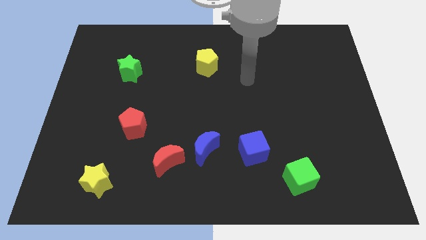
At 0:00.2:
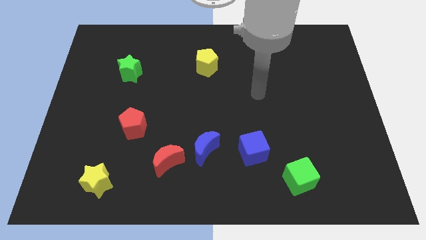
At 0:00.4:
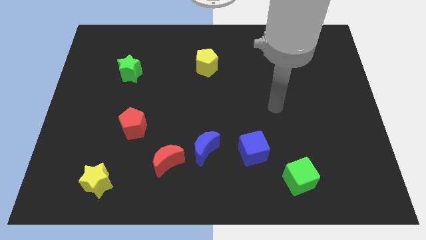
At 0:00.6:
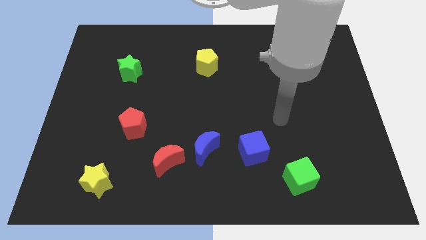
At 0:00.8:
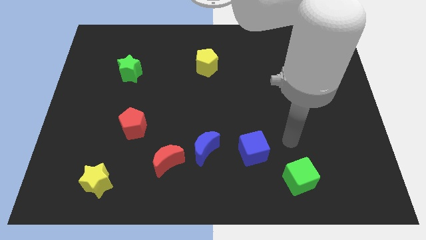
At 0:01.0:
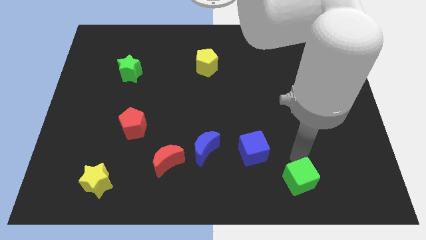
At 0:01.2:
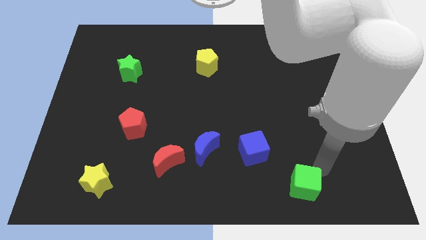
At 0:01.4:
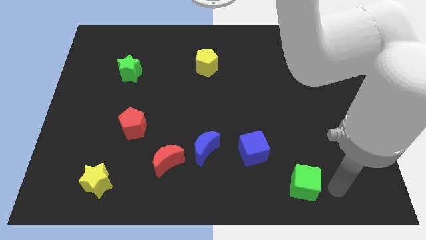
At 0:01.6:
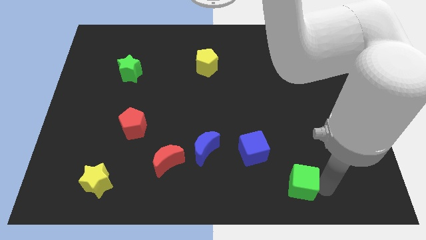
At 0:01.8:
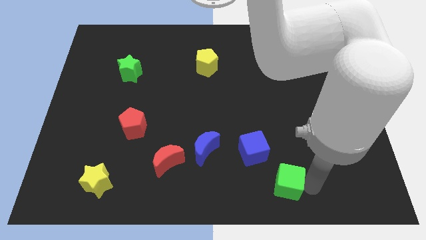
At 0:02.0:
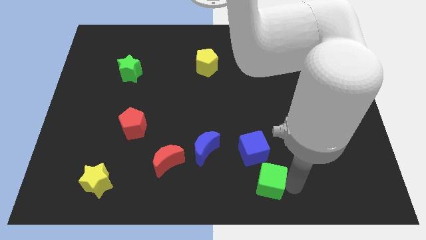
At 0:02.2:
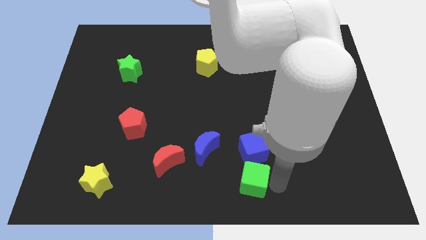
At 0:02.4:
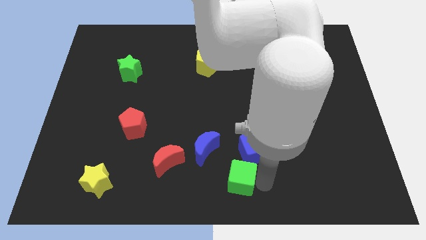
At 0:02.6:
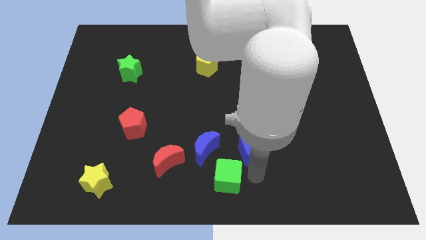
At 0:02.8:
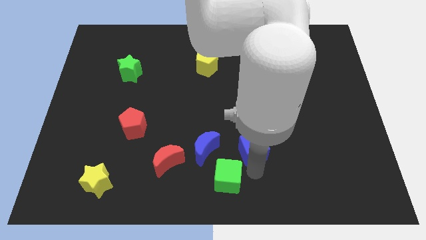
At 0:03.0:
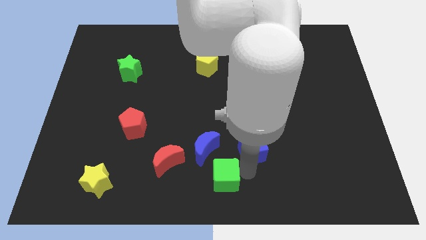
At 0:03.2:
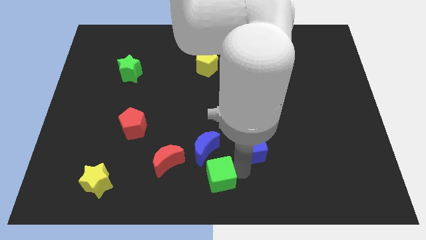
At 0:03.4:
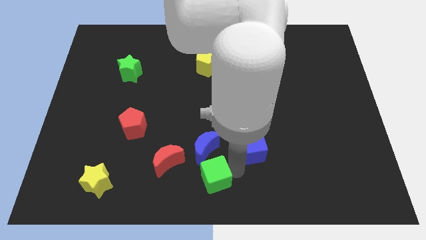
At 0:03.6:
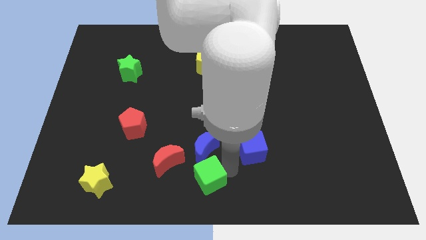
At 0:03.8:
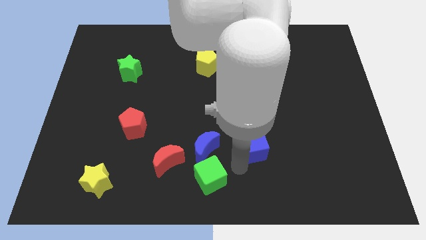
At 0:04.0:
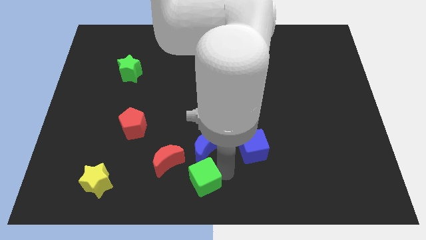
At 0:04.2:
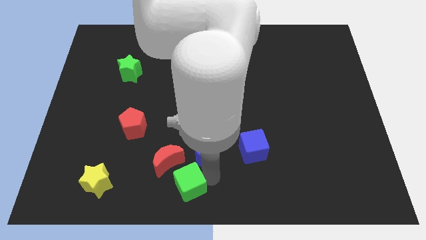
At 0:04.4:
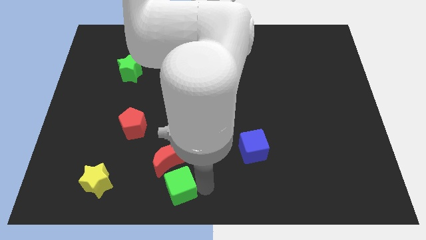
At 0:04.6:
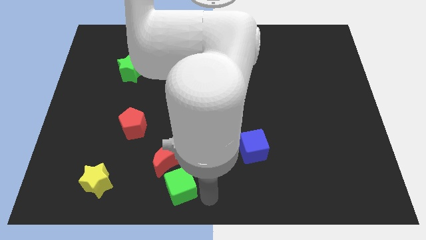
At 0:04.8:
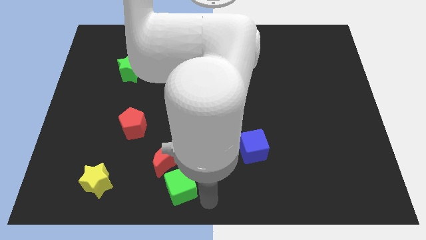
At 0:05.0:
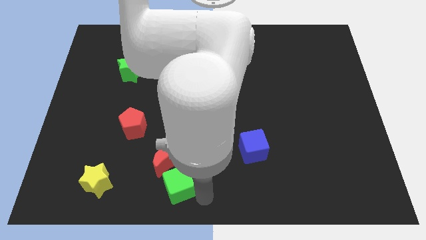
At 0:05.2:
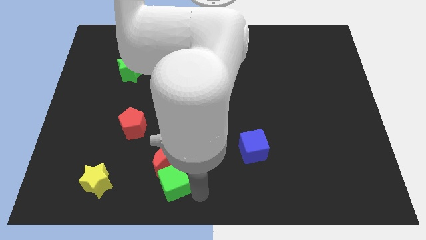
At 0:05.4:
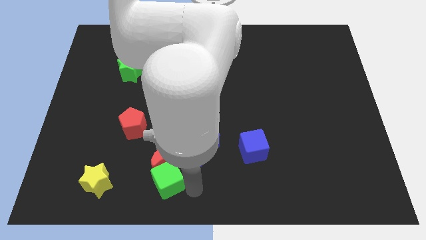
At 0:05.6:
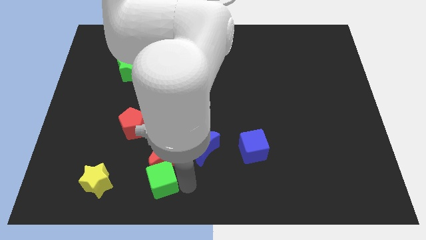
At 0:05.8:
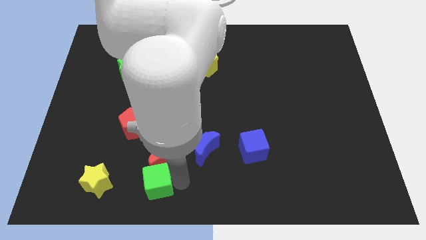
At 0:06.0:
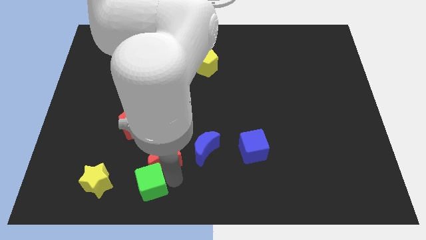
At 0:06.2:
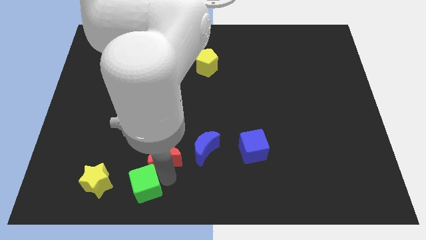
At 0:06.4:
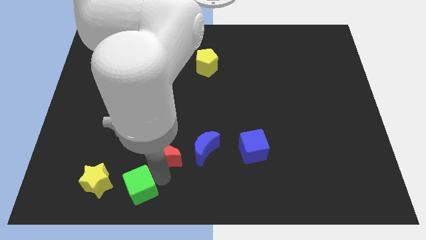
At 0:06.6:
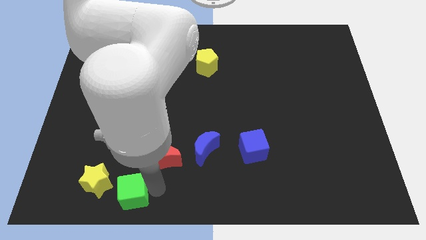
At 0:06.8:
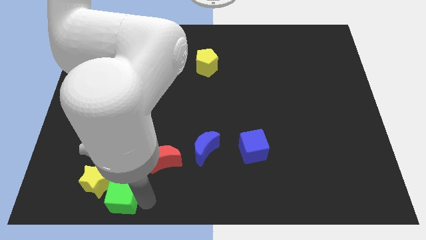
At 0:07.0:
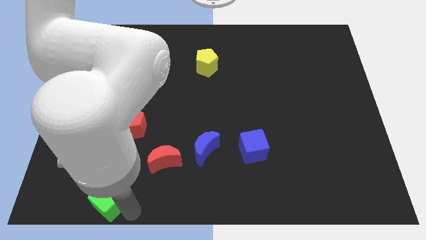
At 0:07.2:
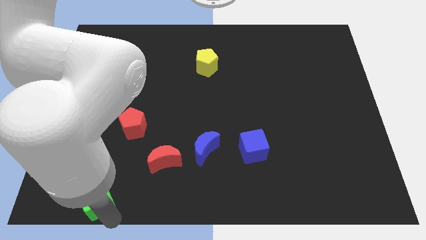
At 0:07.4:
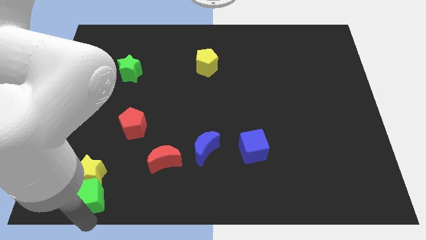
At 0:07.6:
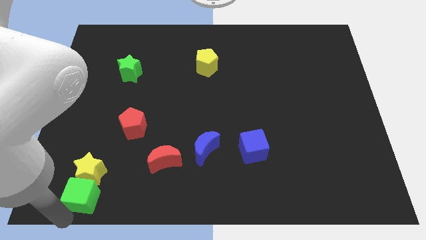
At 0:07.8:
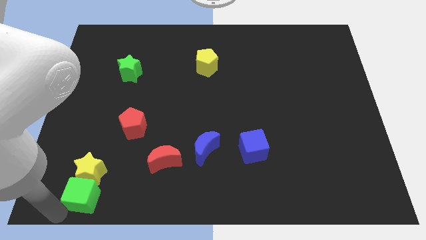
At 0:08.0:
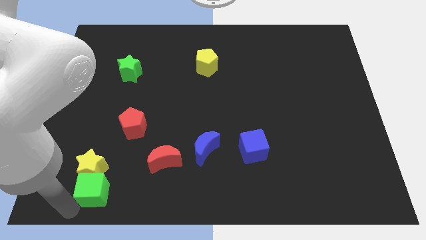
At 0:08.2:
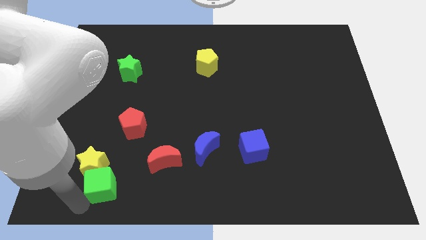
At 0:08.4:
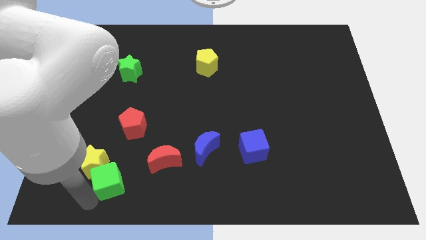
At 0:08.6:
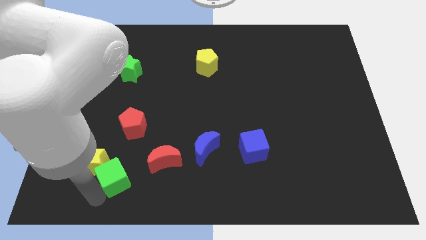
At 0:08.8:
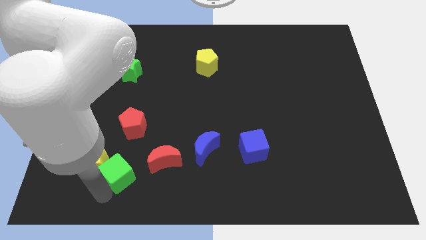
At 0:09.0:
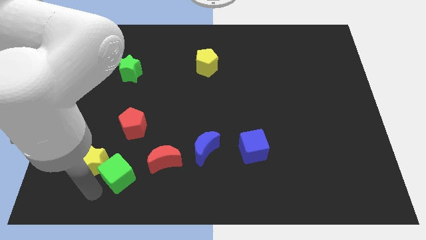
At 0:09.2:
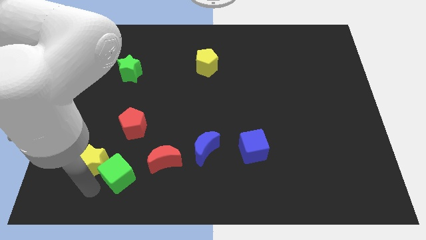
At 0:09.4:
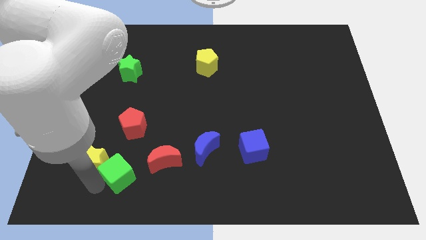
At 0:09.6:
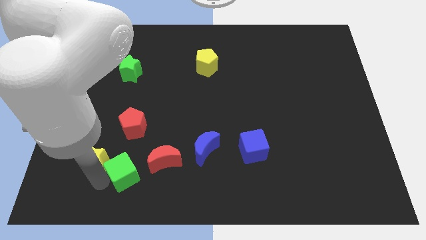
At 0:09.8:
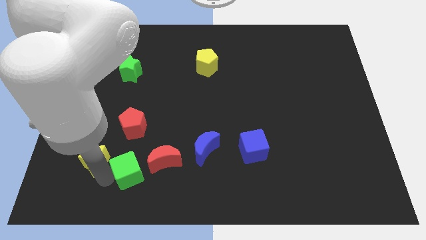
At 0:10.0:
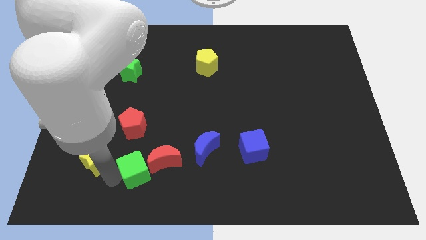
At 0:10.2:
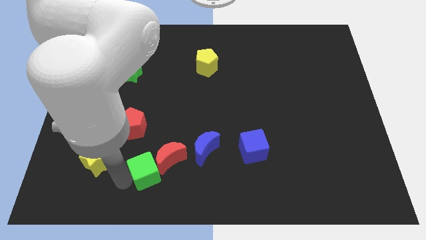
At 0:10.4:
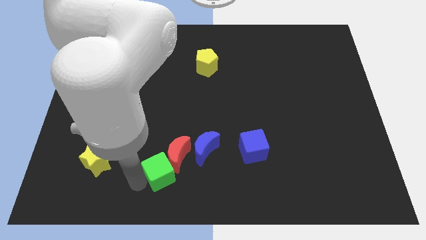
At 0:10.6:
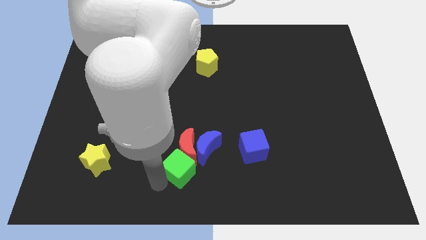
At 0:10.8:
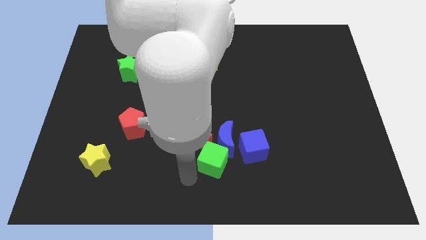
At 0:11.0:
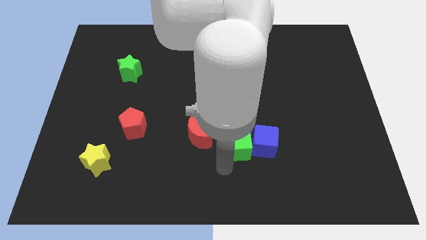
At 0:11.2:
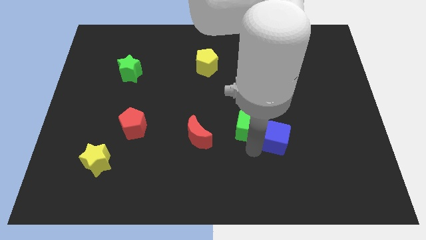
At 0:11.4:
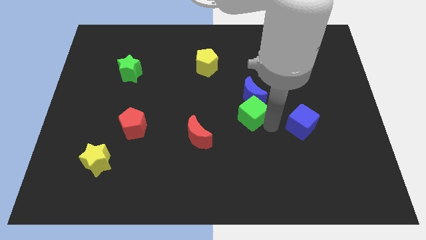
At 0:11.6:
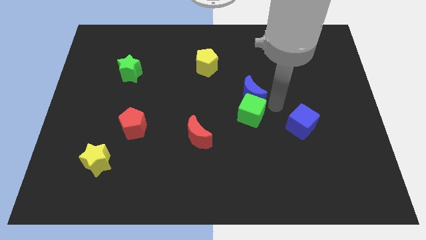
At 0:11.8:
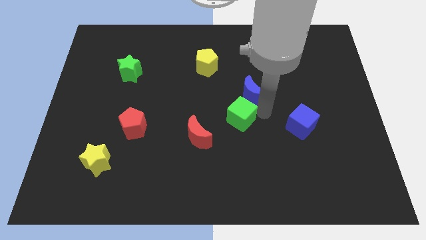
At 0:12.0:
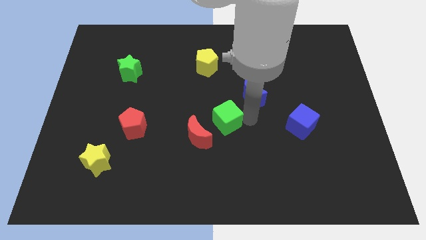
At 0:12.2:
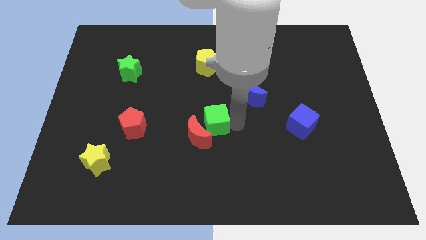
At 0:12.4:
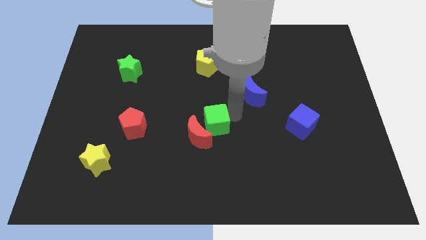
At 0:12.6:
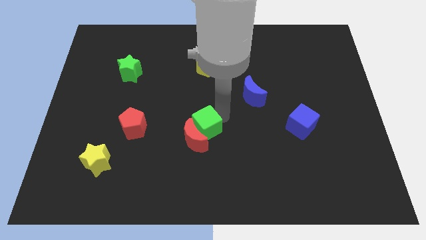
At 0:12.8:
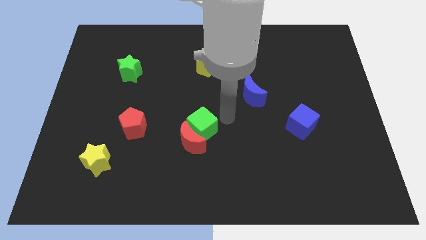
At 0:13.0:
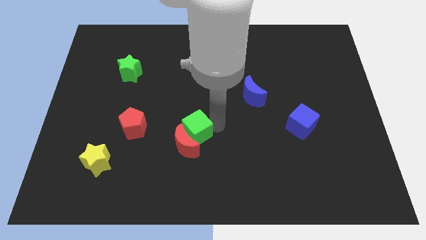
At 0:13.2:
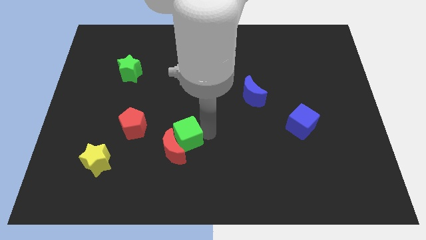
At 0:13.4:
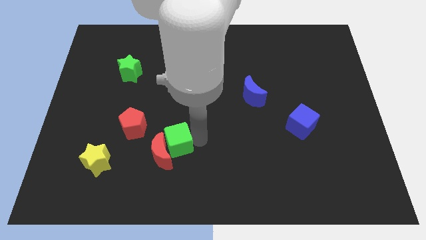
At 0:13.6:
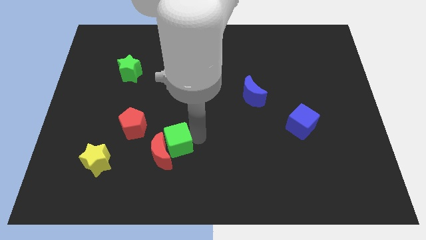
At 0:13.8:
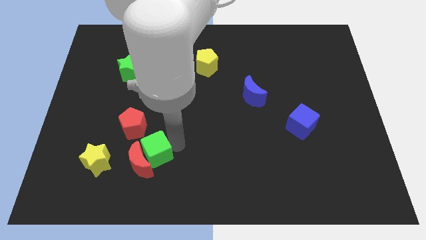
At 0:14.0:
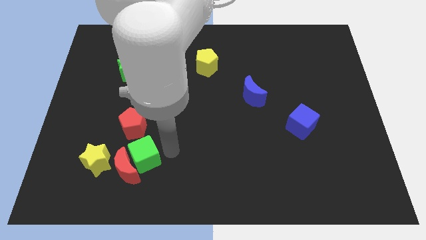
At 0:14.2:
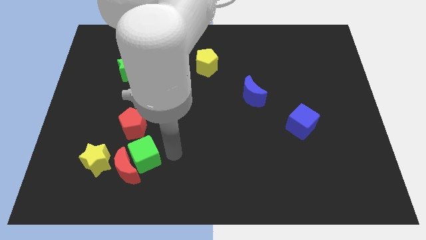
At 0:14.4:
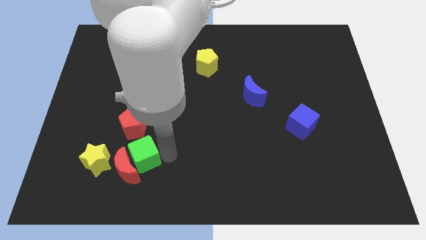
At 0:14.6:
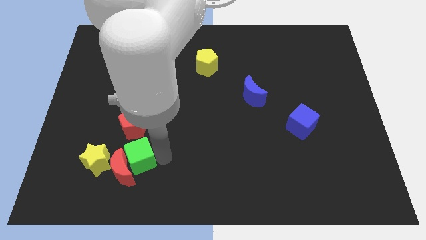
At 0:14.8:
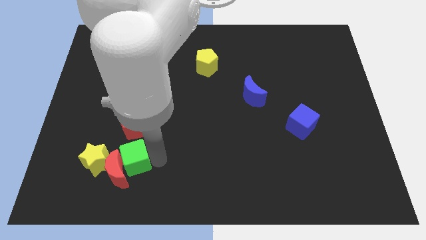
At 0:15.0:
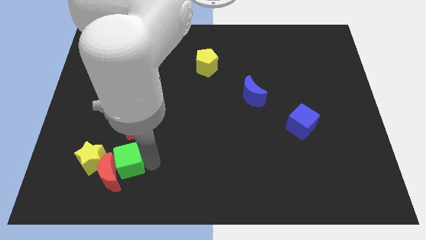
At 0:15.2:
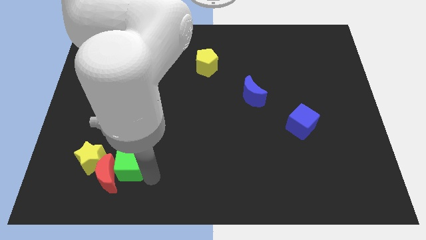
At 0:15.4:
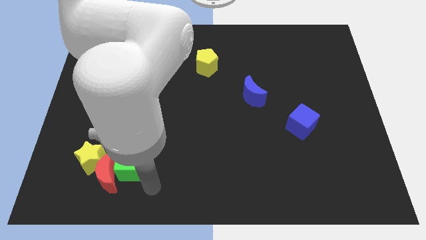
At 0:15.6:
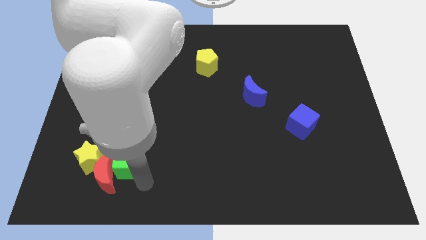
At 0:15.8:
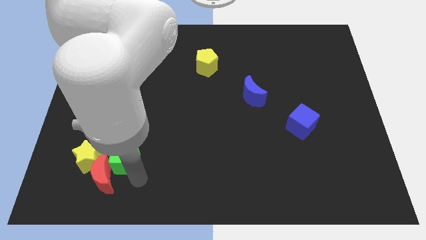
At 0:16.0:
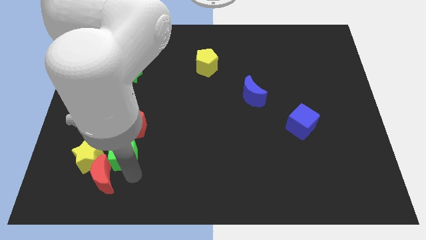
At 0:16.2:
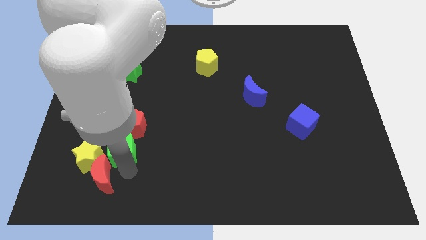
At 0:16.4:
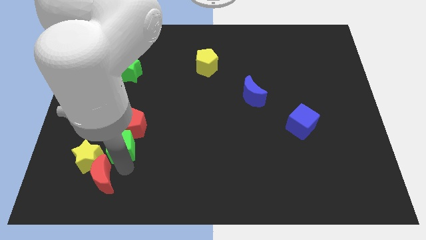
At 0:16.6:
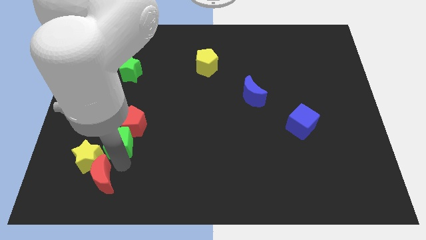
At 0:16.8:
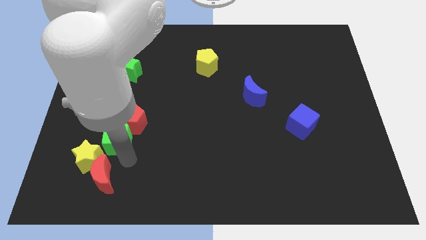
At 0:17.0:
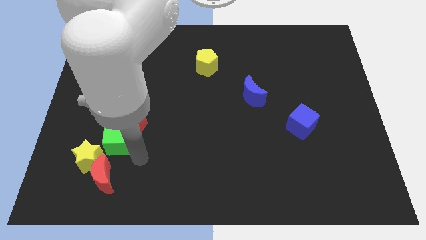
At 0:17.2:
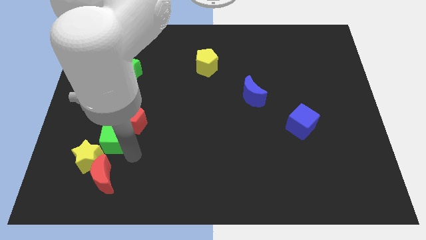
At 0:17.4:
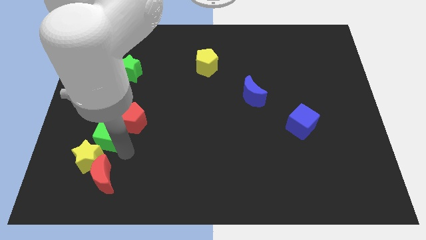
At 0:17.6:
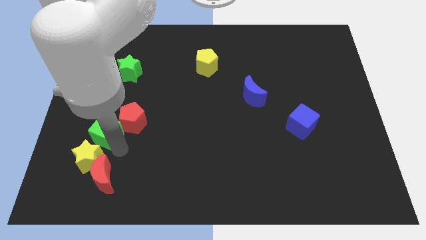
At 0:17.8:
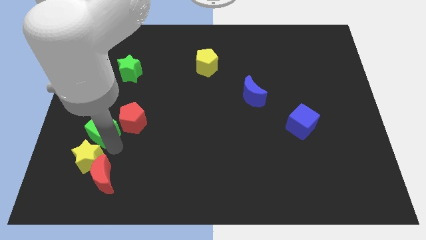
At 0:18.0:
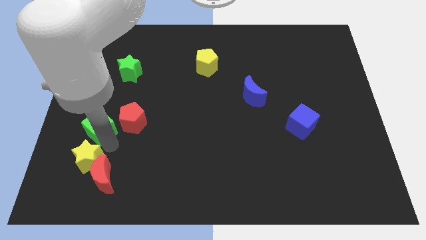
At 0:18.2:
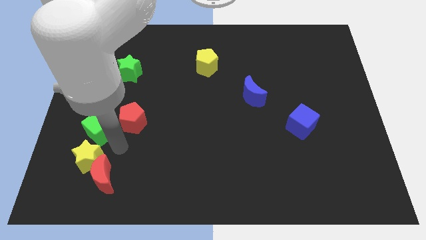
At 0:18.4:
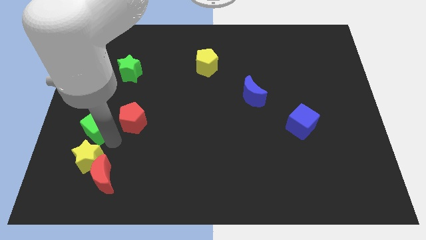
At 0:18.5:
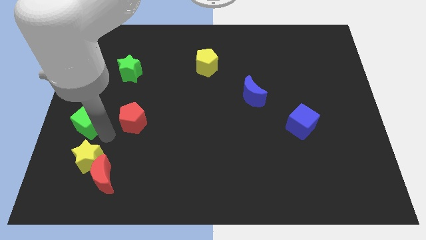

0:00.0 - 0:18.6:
put the green cube to the left side of the board
